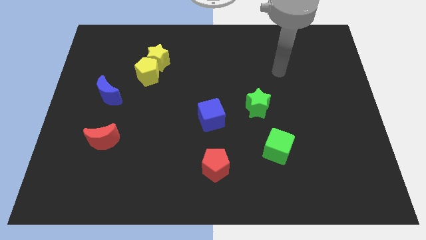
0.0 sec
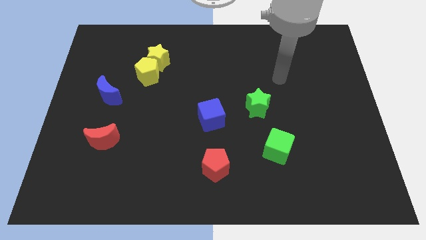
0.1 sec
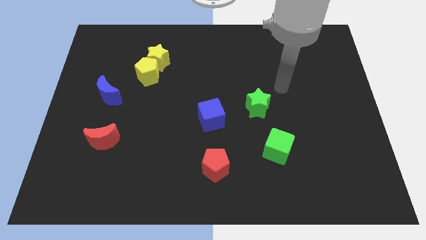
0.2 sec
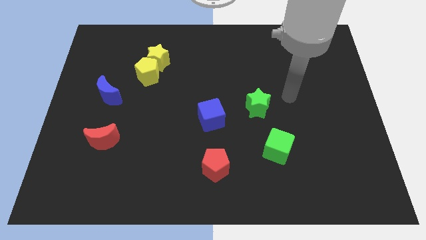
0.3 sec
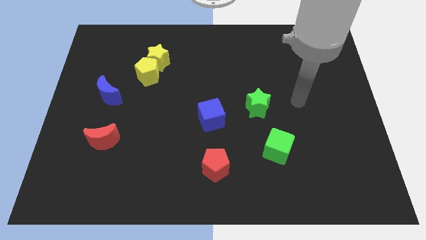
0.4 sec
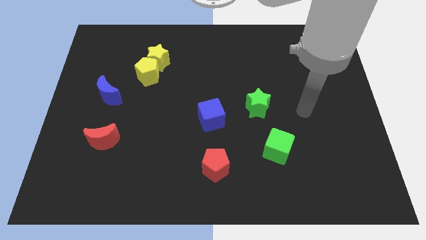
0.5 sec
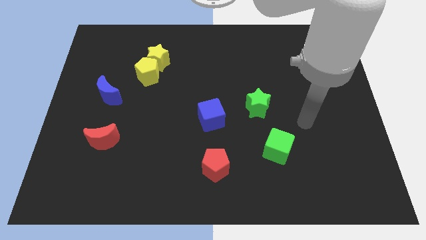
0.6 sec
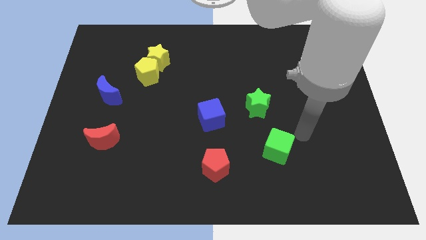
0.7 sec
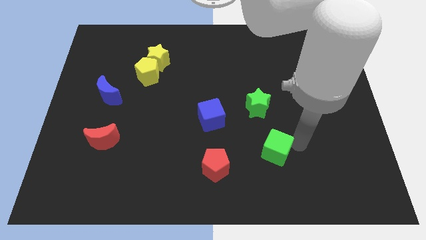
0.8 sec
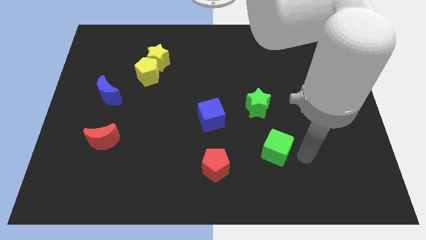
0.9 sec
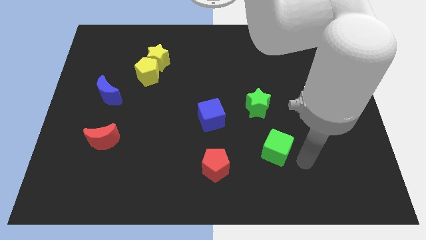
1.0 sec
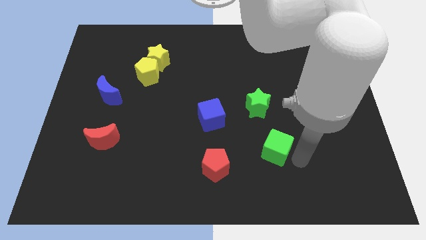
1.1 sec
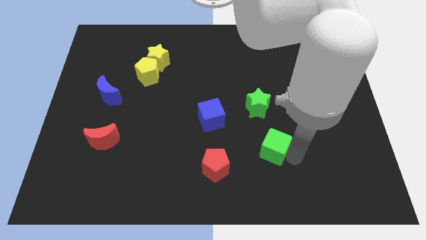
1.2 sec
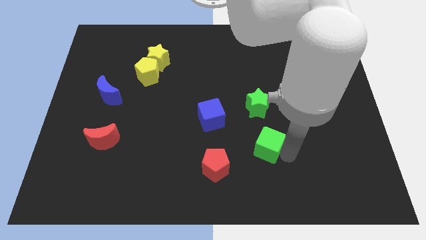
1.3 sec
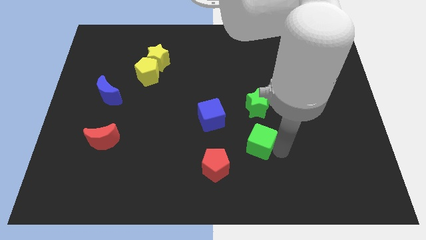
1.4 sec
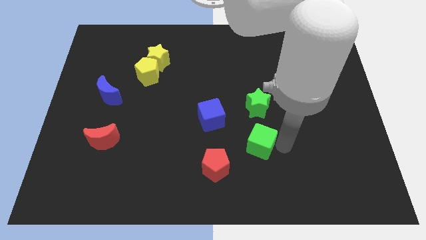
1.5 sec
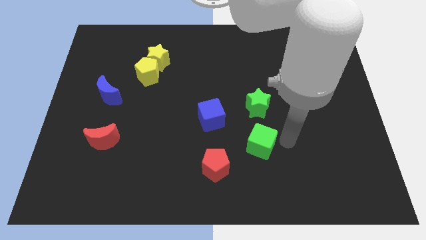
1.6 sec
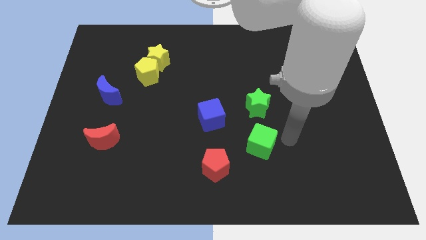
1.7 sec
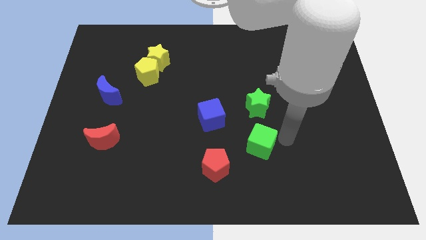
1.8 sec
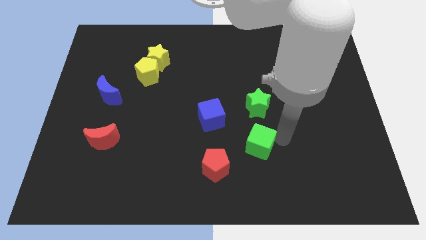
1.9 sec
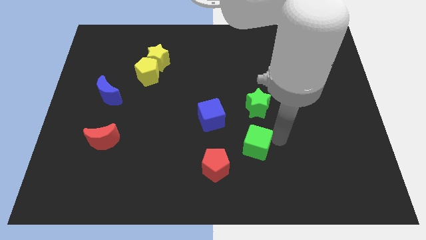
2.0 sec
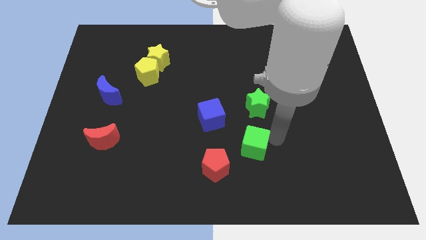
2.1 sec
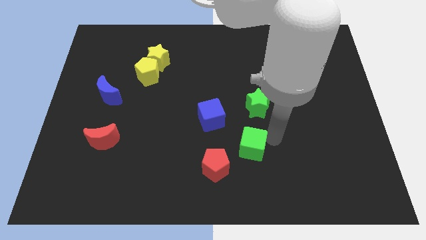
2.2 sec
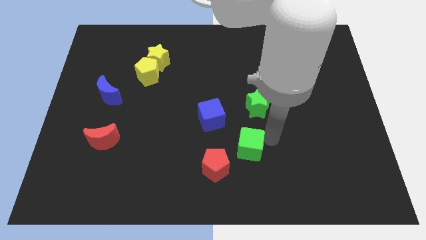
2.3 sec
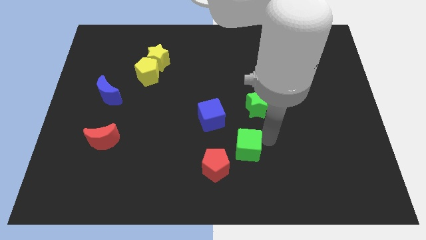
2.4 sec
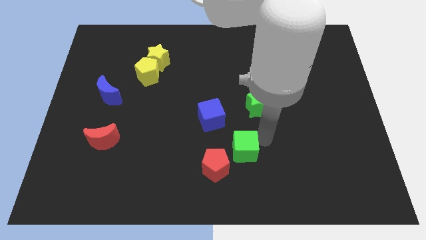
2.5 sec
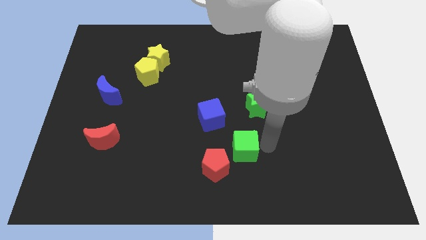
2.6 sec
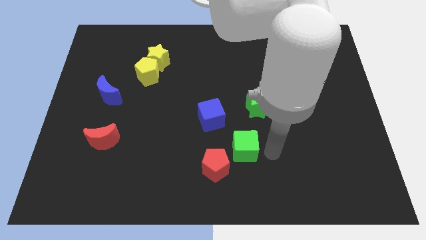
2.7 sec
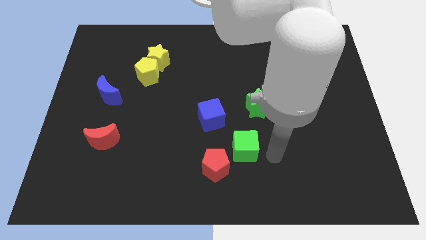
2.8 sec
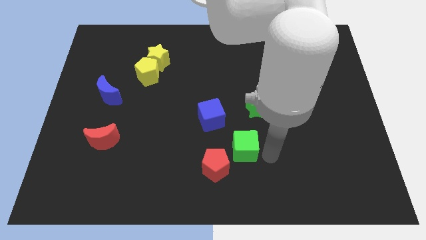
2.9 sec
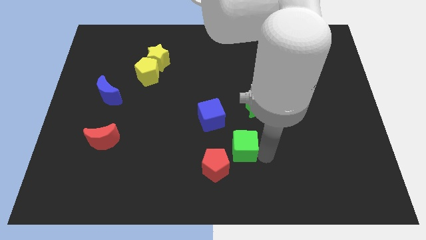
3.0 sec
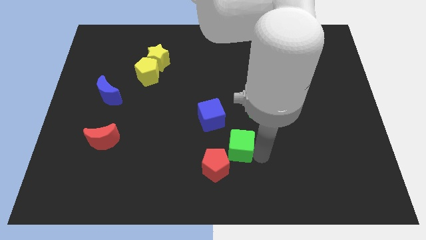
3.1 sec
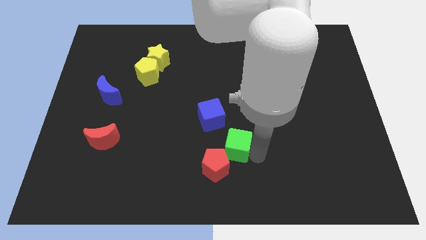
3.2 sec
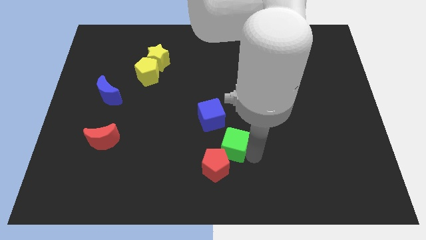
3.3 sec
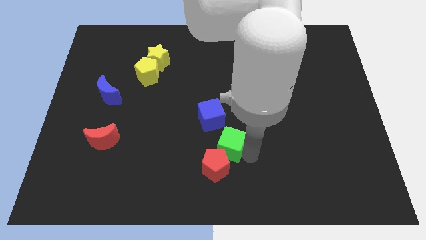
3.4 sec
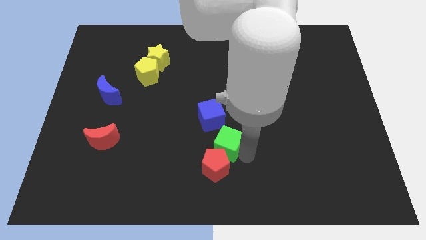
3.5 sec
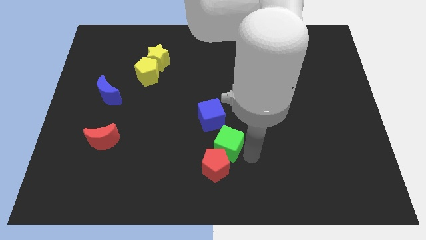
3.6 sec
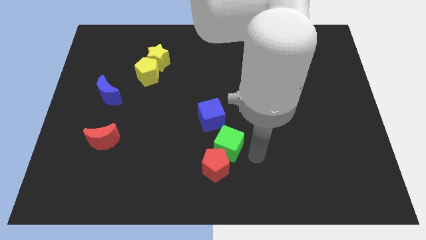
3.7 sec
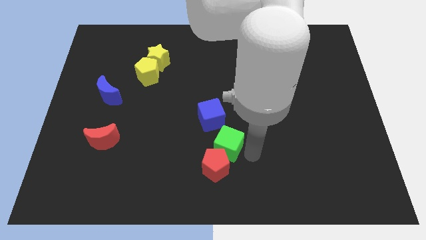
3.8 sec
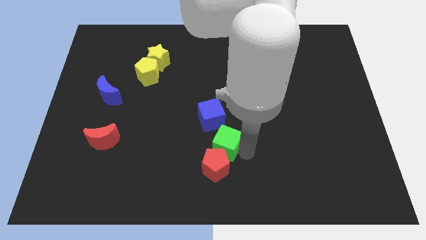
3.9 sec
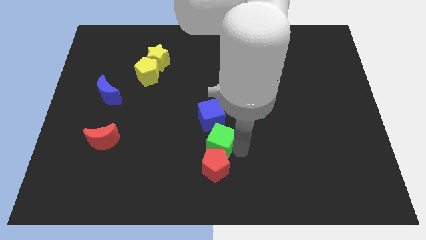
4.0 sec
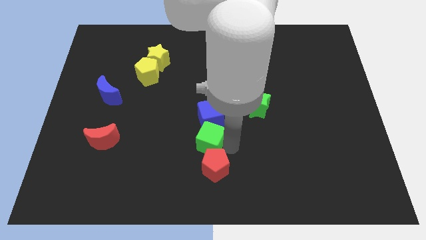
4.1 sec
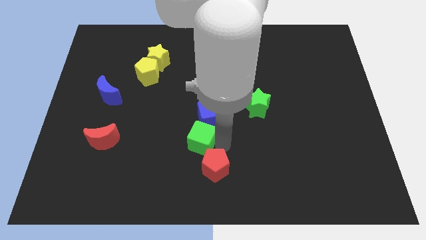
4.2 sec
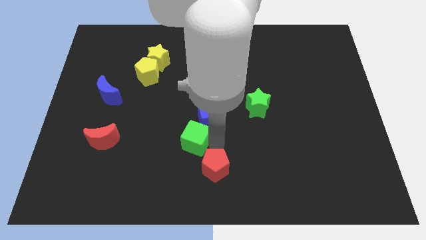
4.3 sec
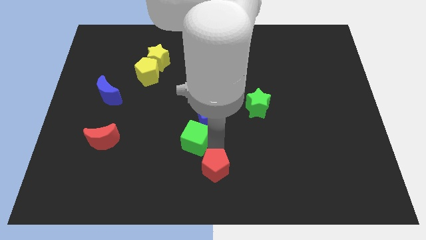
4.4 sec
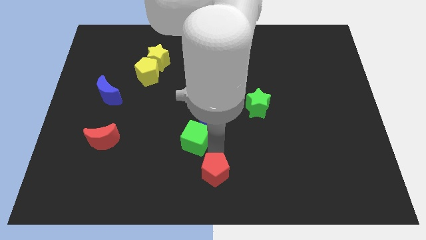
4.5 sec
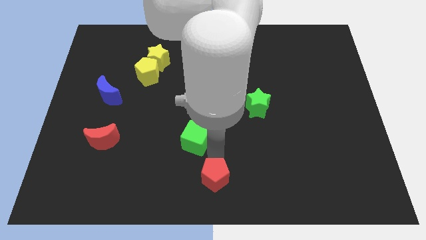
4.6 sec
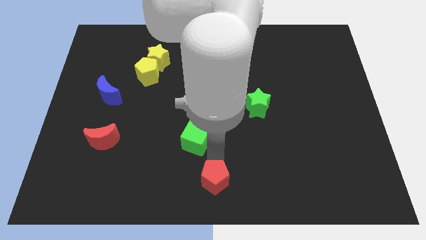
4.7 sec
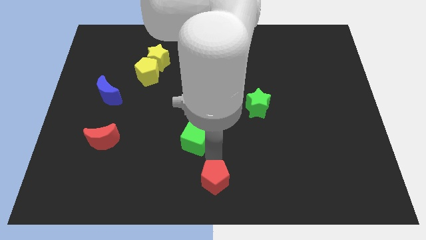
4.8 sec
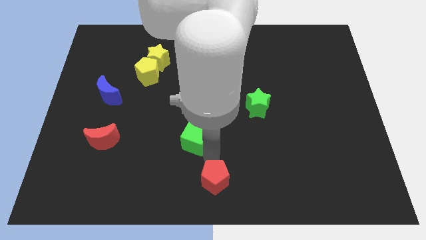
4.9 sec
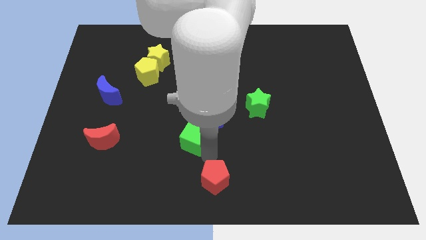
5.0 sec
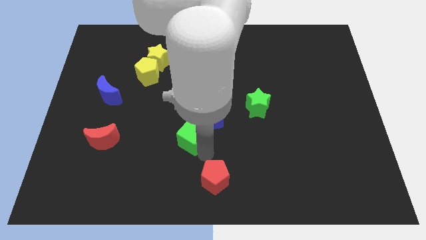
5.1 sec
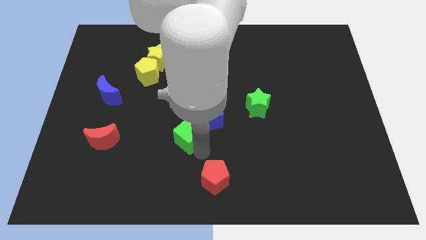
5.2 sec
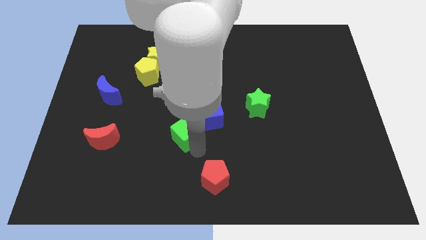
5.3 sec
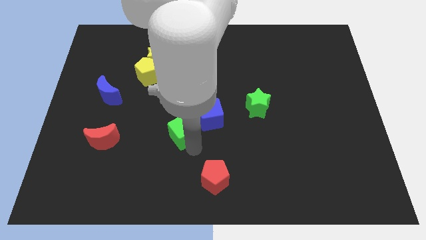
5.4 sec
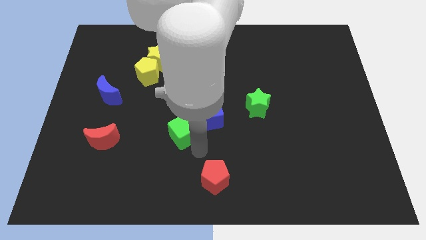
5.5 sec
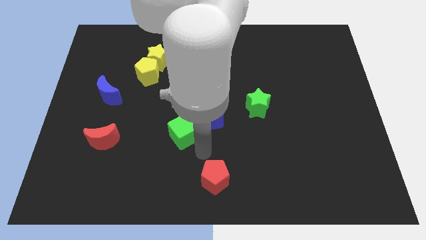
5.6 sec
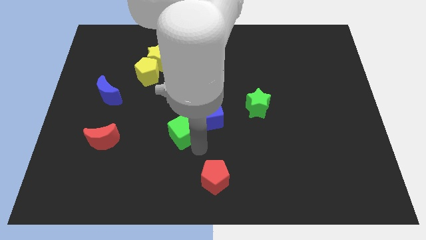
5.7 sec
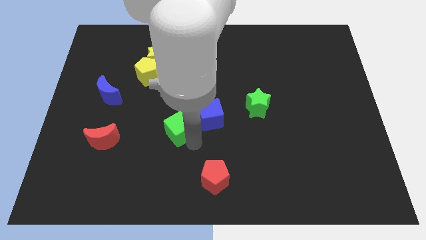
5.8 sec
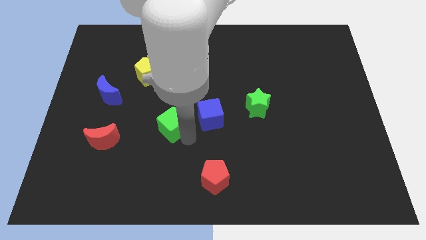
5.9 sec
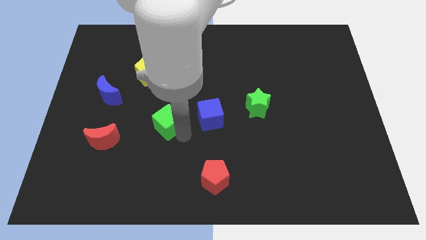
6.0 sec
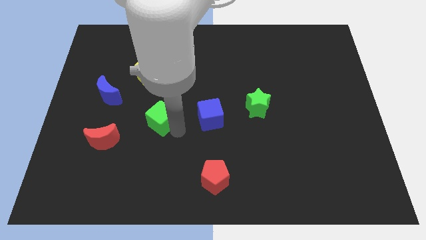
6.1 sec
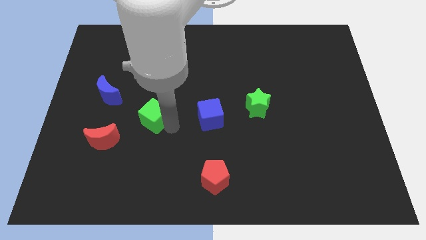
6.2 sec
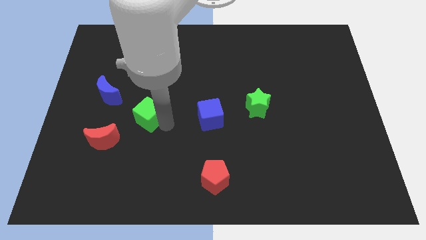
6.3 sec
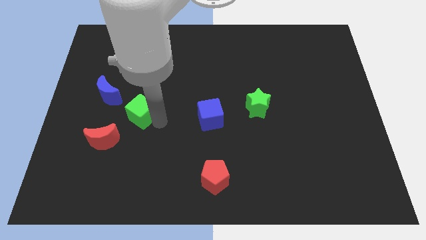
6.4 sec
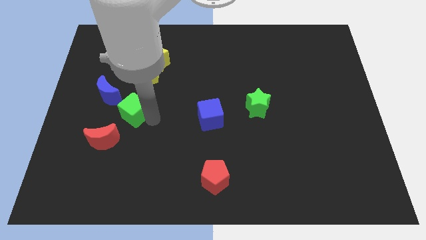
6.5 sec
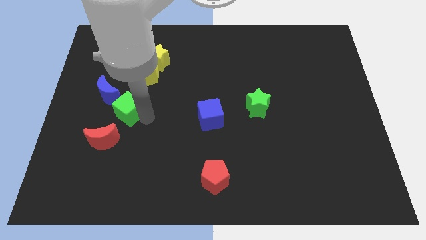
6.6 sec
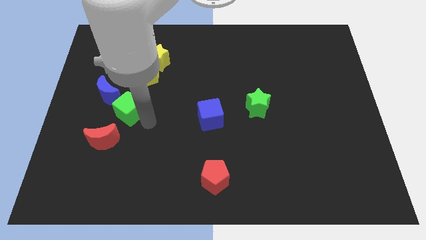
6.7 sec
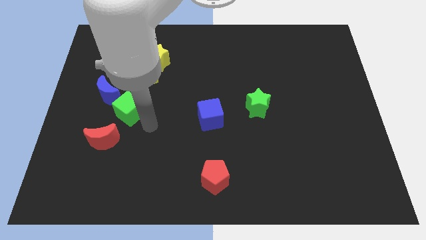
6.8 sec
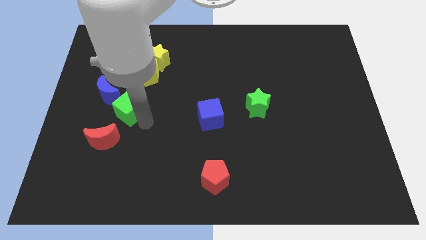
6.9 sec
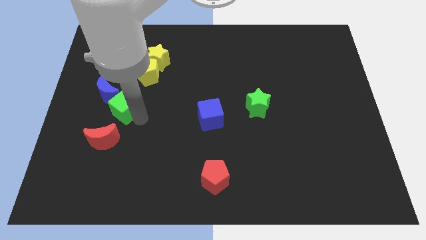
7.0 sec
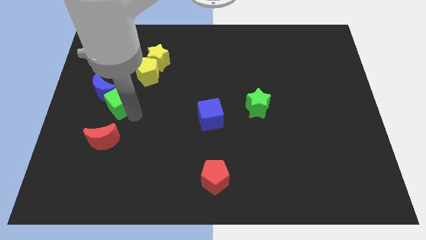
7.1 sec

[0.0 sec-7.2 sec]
slide the green cube close to the blue moon
